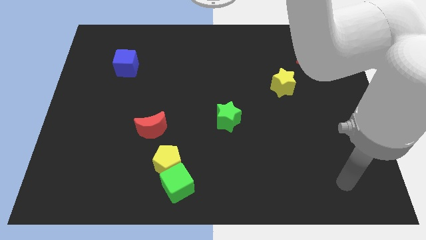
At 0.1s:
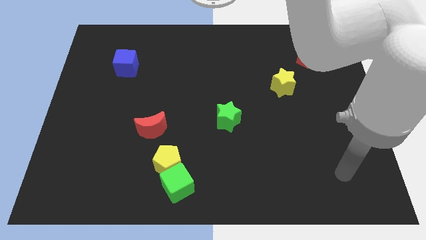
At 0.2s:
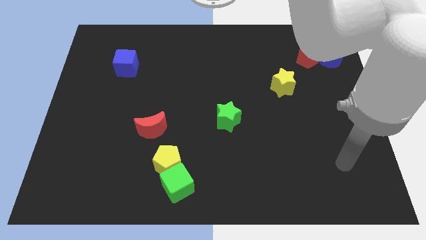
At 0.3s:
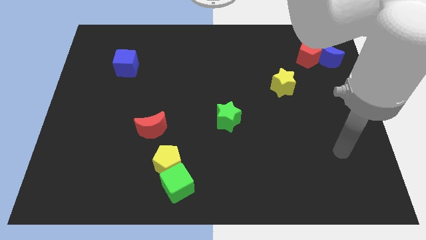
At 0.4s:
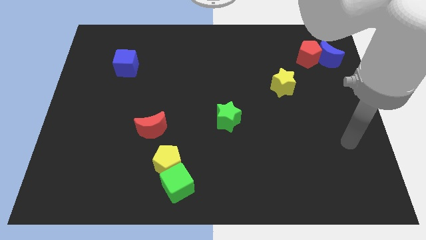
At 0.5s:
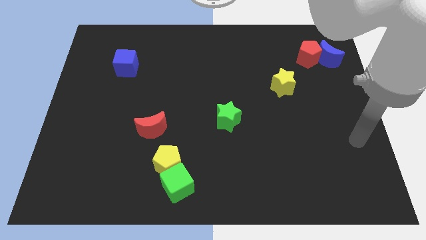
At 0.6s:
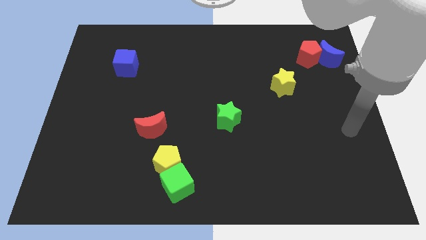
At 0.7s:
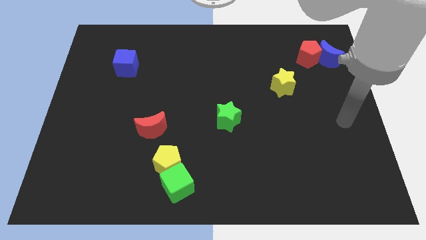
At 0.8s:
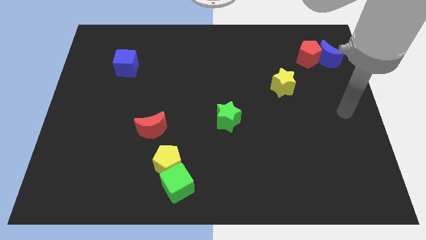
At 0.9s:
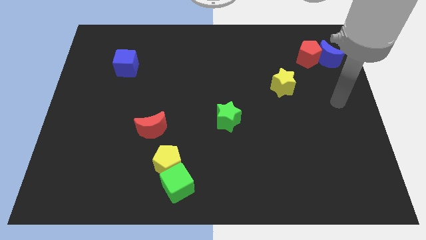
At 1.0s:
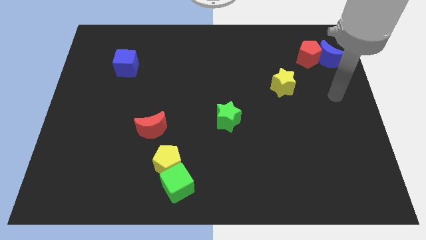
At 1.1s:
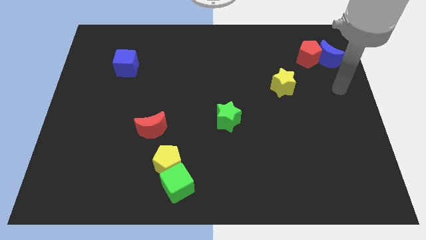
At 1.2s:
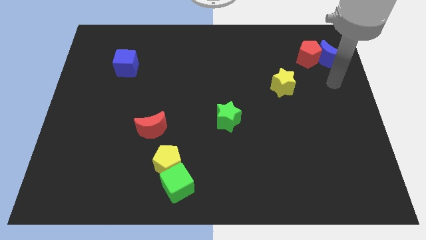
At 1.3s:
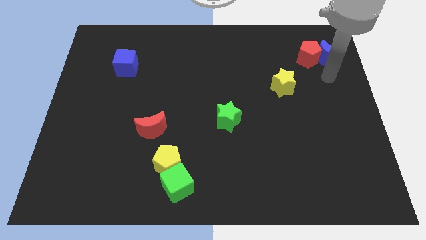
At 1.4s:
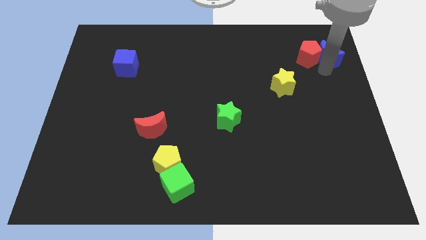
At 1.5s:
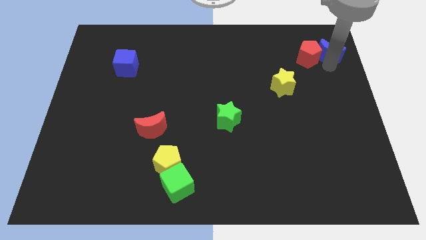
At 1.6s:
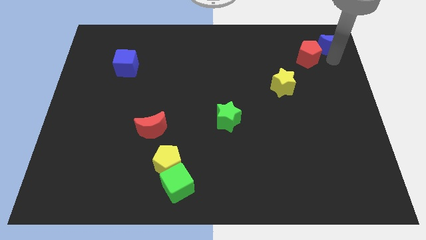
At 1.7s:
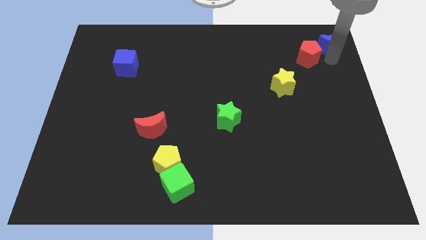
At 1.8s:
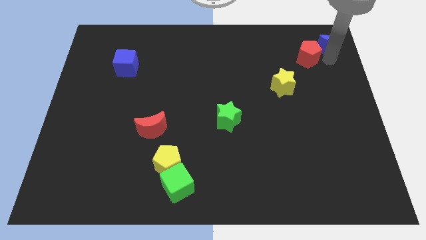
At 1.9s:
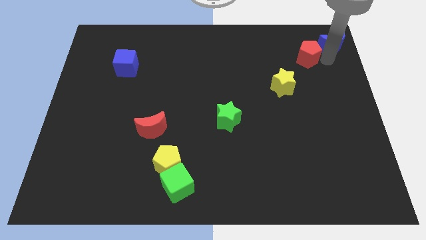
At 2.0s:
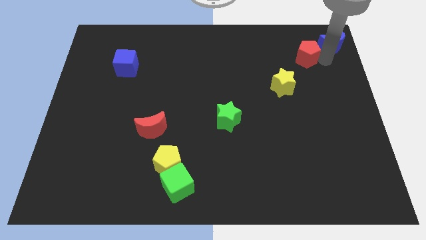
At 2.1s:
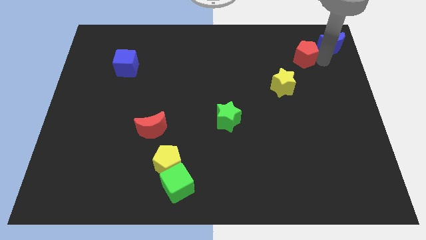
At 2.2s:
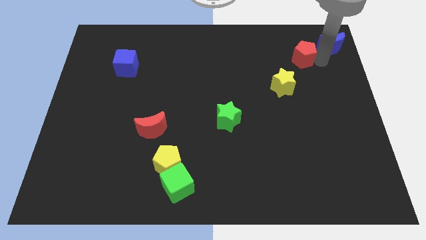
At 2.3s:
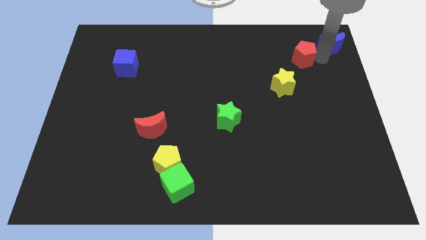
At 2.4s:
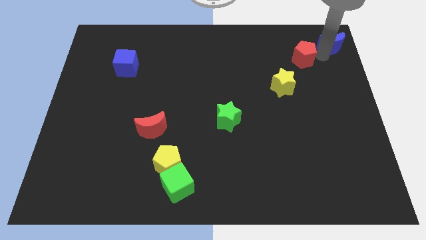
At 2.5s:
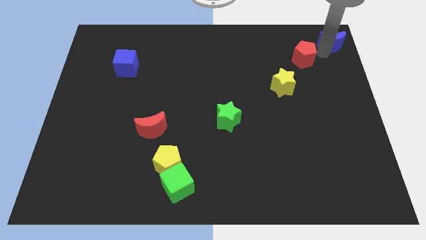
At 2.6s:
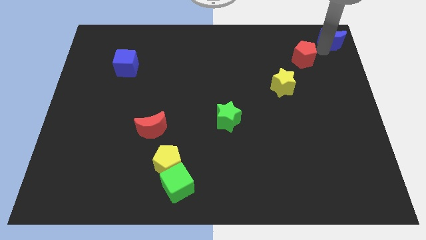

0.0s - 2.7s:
pull the red pentagon apart from the blue moon

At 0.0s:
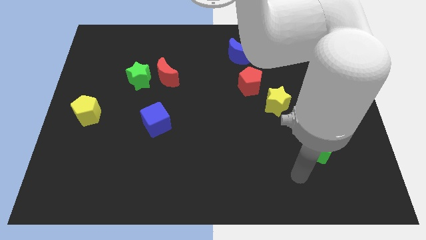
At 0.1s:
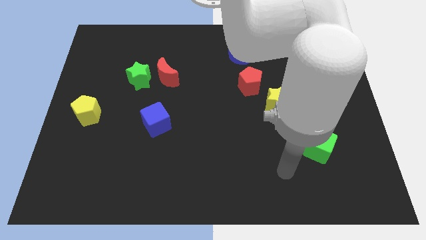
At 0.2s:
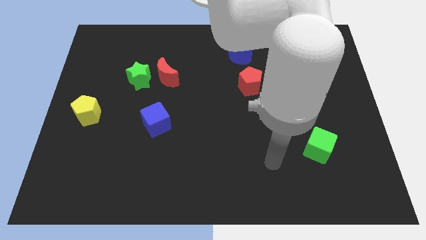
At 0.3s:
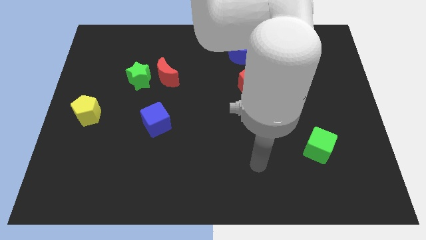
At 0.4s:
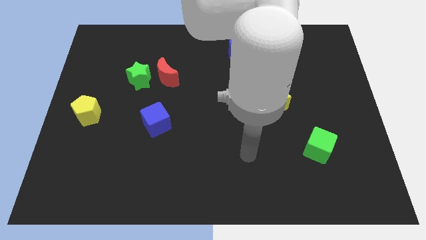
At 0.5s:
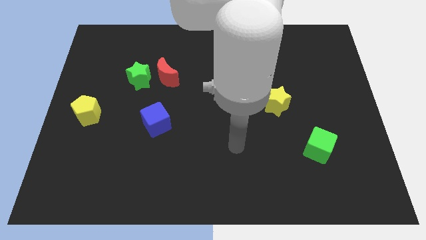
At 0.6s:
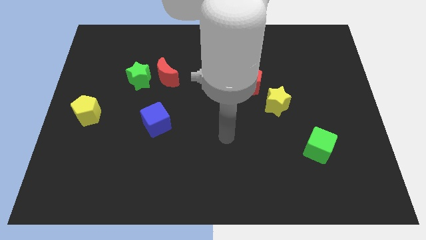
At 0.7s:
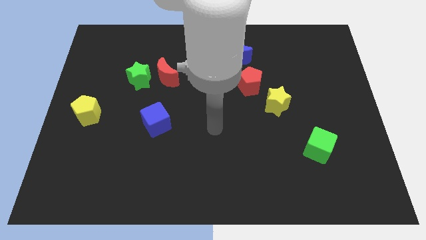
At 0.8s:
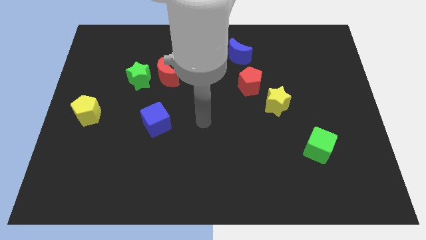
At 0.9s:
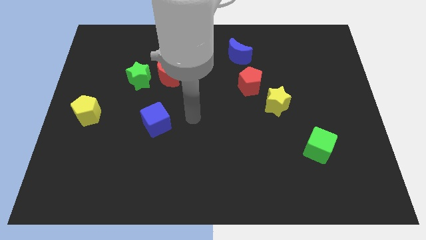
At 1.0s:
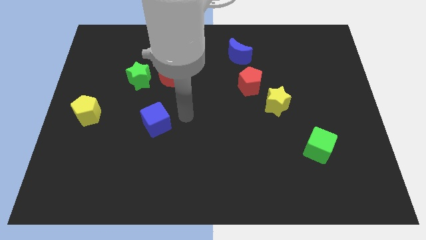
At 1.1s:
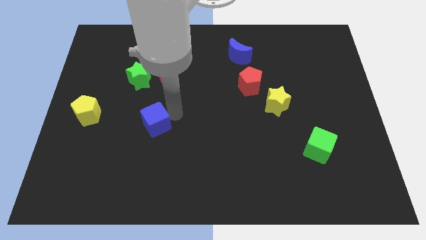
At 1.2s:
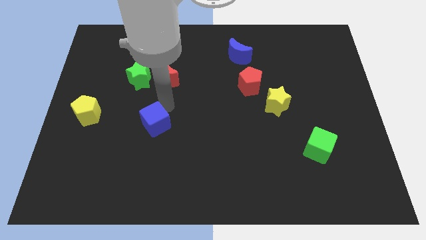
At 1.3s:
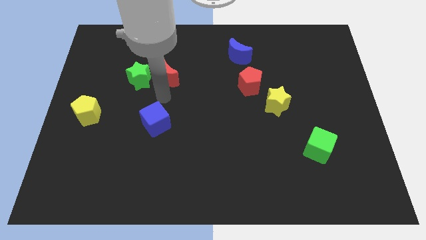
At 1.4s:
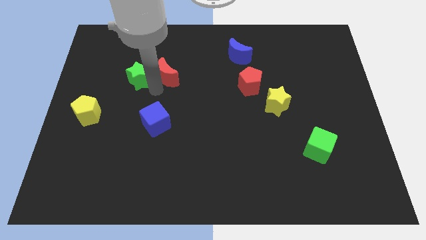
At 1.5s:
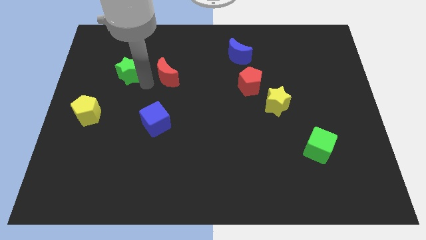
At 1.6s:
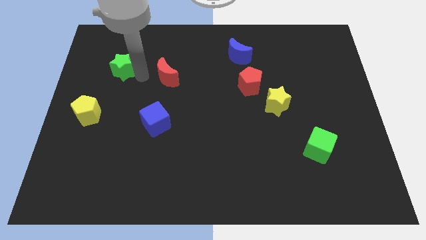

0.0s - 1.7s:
move the red moon away from the green star

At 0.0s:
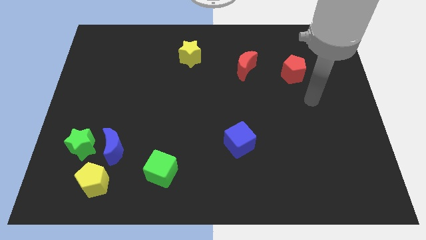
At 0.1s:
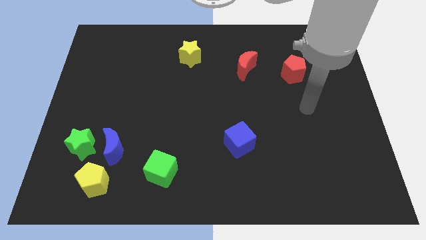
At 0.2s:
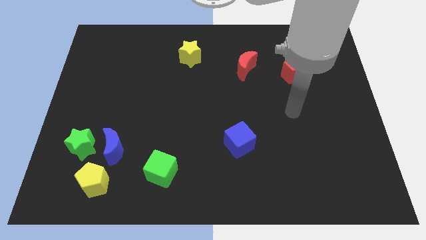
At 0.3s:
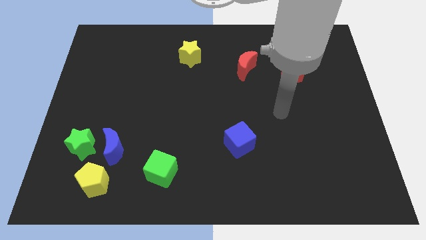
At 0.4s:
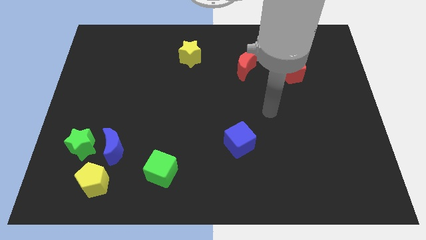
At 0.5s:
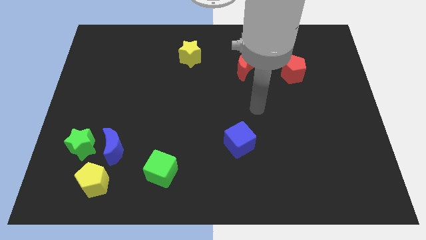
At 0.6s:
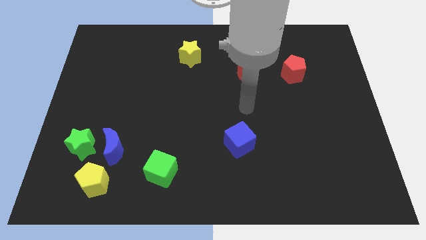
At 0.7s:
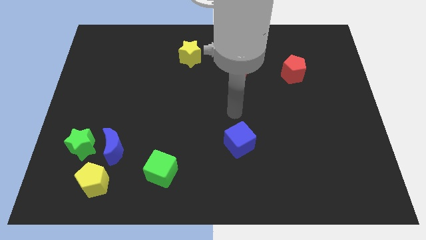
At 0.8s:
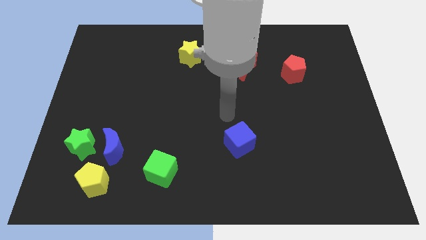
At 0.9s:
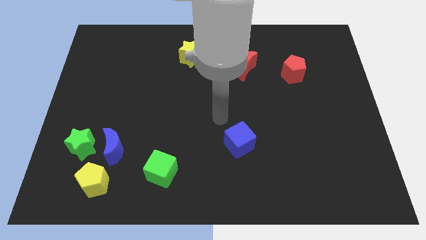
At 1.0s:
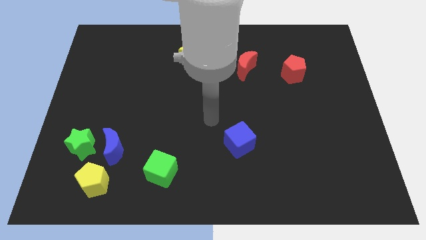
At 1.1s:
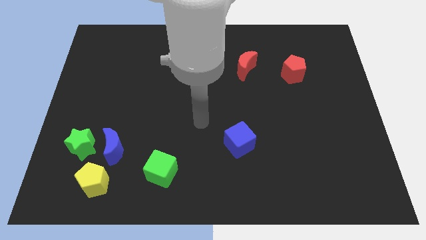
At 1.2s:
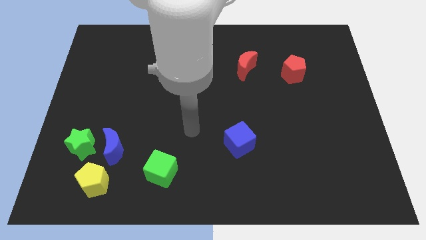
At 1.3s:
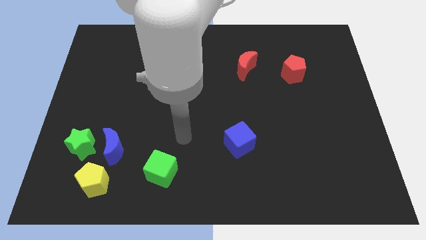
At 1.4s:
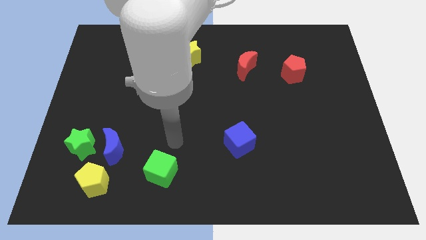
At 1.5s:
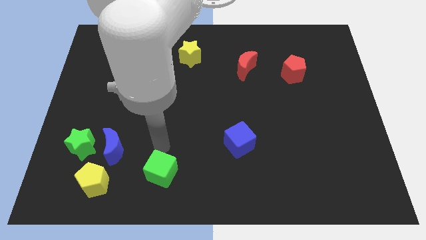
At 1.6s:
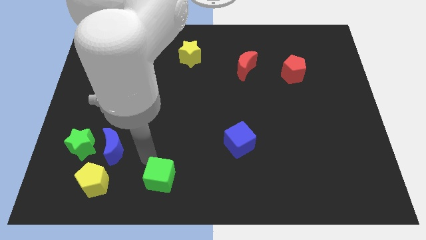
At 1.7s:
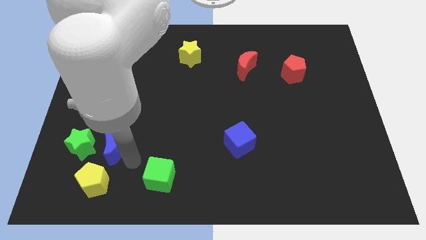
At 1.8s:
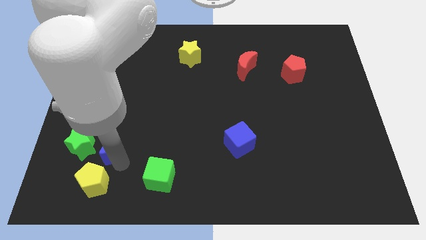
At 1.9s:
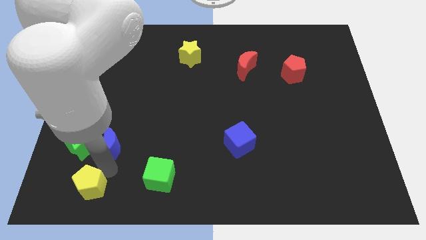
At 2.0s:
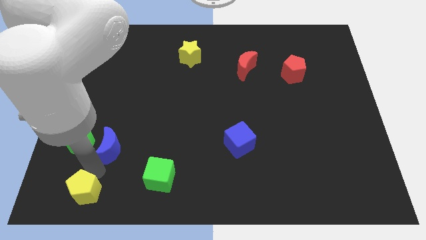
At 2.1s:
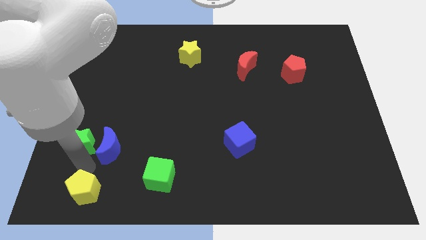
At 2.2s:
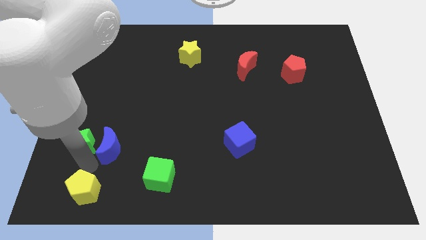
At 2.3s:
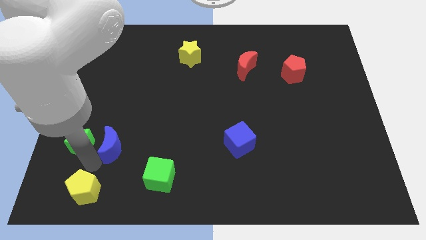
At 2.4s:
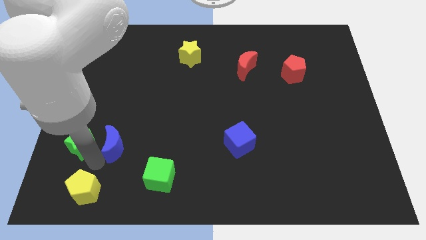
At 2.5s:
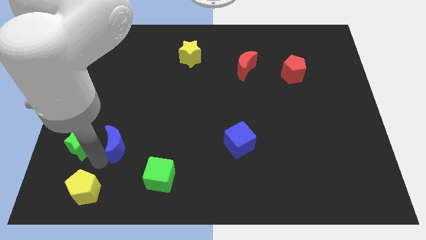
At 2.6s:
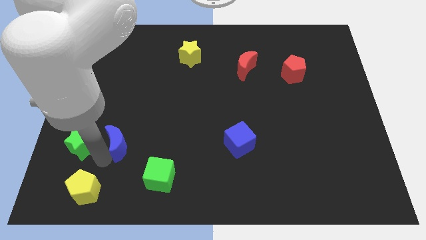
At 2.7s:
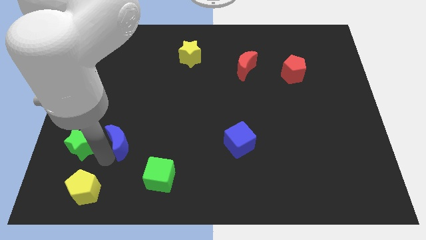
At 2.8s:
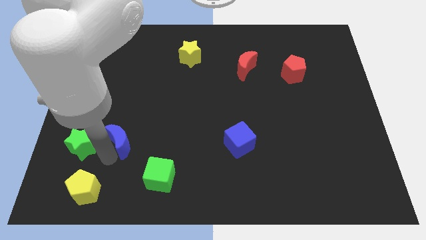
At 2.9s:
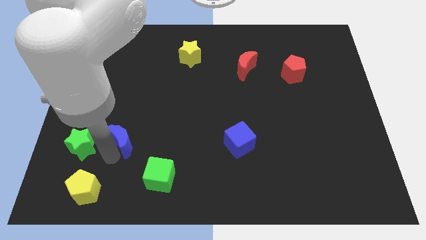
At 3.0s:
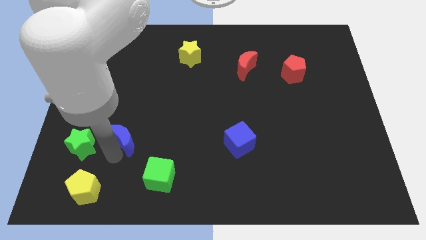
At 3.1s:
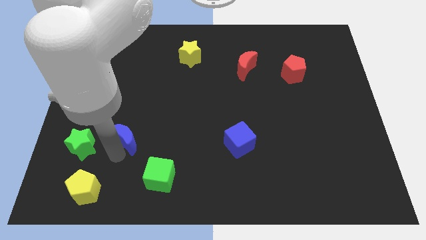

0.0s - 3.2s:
pull the blue moon apart from the green star and yellow pentagon

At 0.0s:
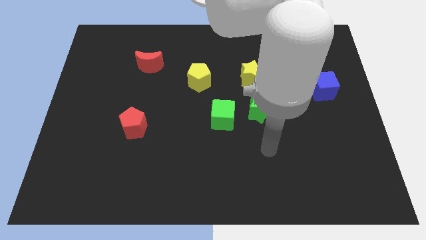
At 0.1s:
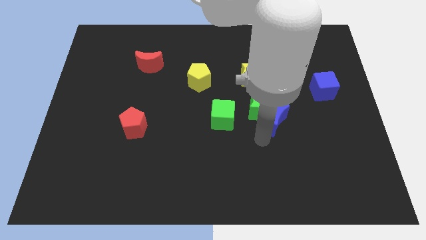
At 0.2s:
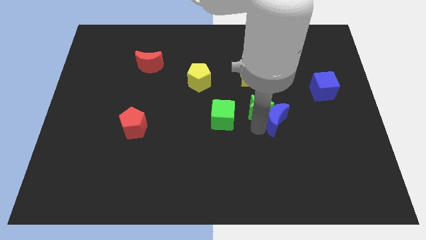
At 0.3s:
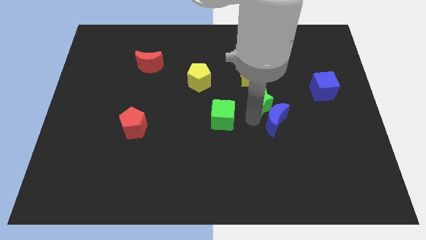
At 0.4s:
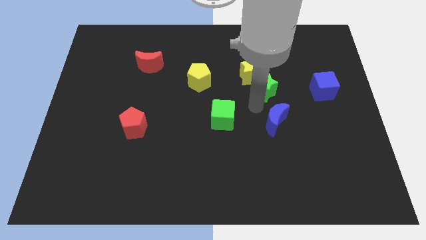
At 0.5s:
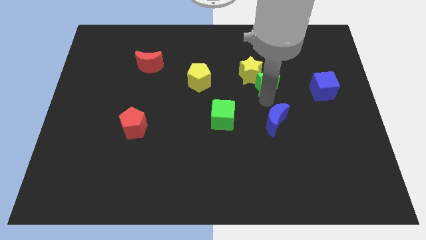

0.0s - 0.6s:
move the blue moon away from the green star

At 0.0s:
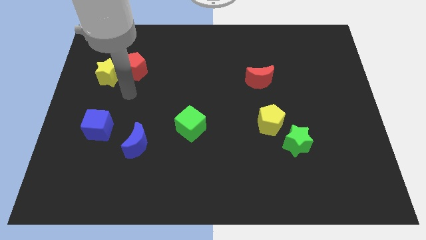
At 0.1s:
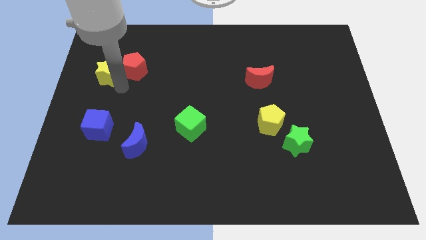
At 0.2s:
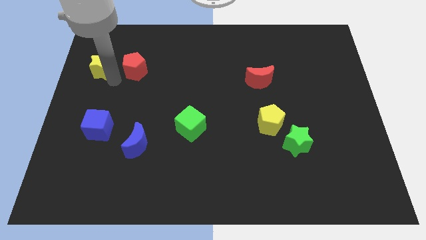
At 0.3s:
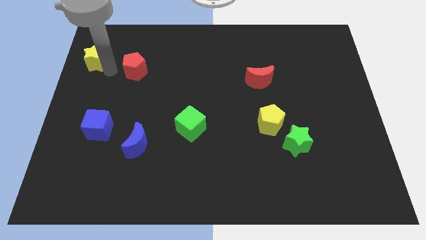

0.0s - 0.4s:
pull the red pentagon apart from the yellow star

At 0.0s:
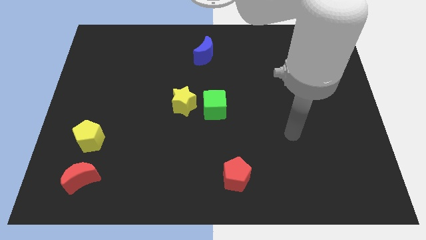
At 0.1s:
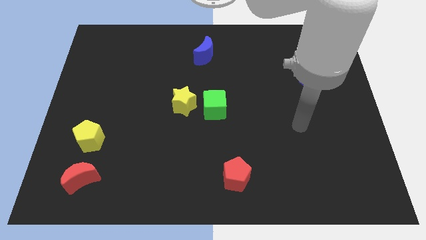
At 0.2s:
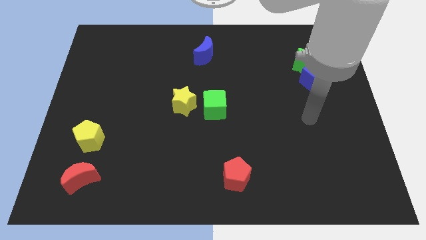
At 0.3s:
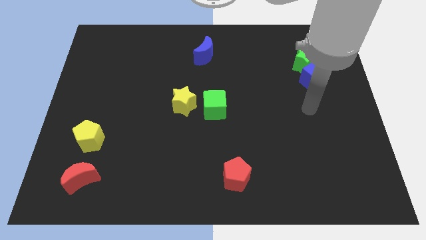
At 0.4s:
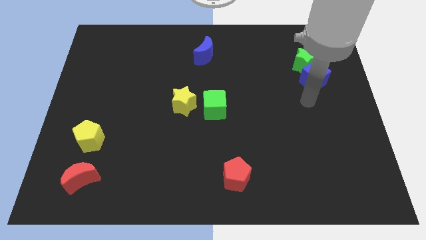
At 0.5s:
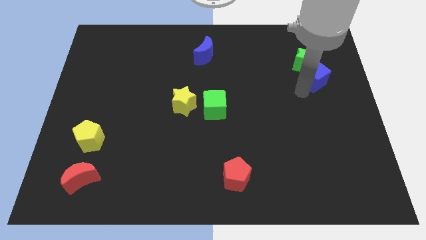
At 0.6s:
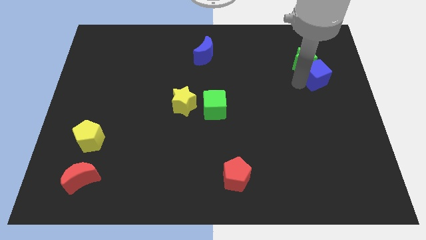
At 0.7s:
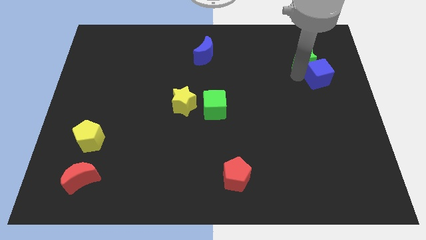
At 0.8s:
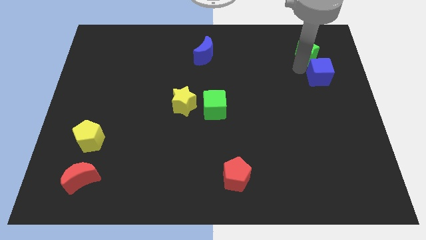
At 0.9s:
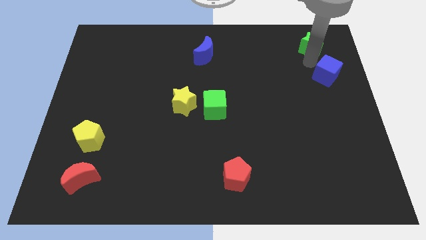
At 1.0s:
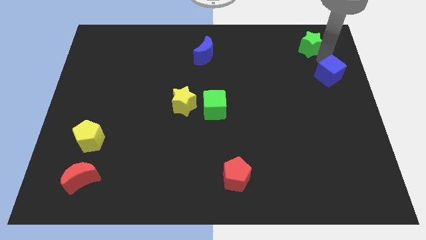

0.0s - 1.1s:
pull the blue cube apart from the green star
